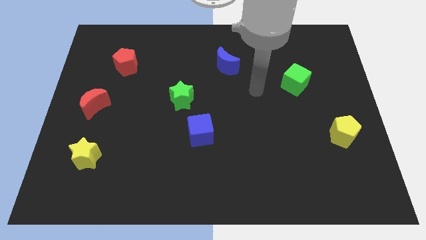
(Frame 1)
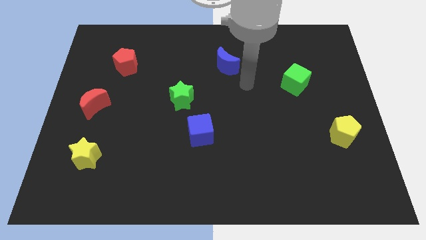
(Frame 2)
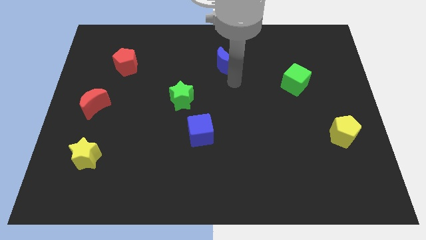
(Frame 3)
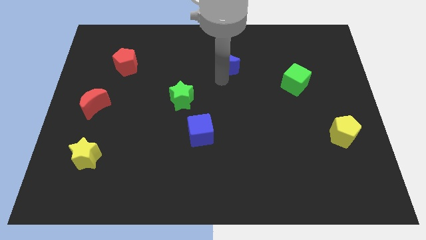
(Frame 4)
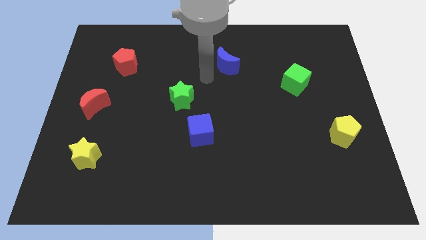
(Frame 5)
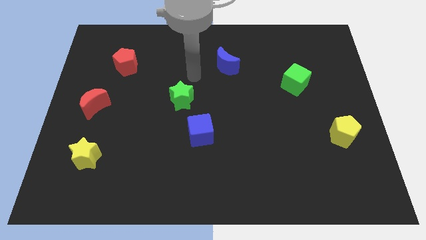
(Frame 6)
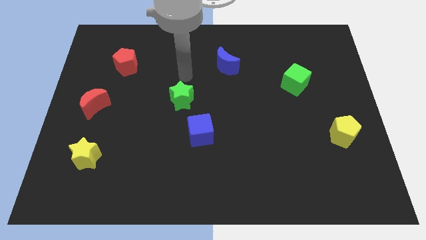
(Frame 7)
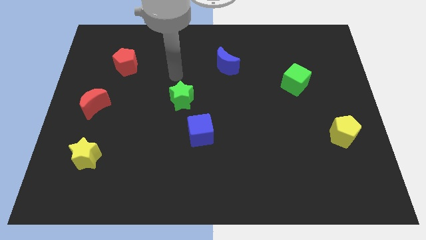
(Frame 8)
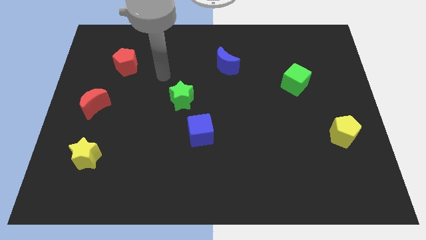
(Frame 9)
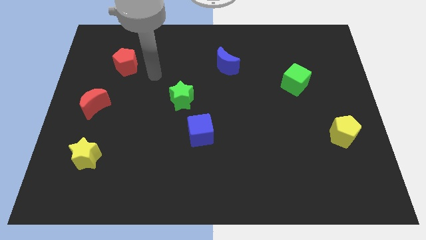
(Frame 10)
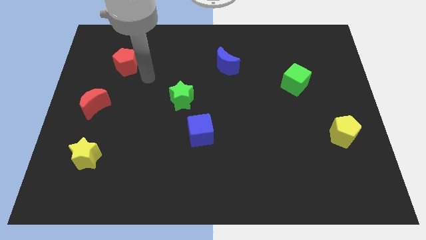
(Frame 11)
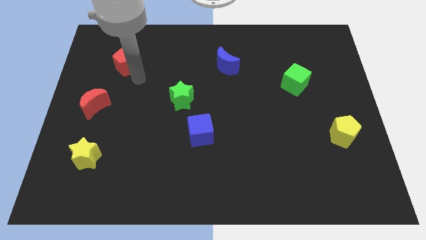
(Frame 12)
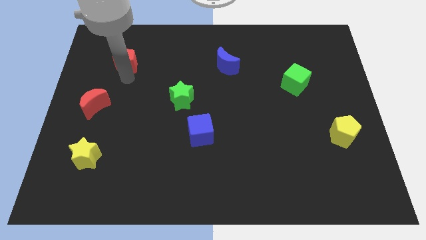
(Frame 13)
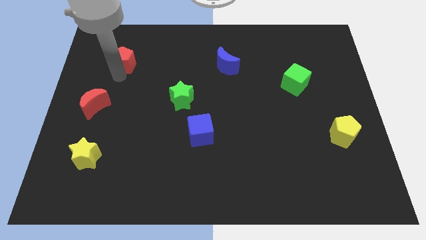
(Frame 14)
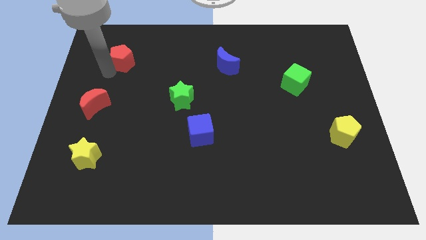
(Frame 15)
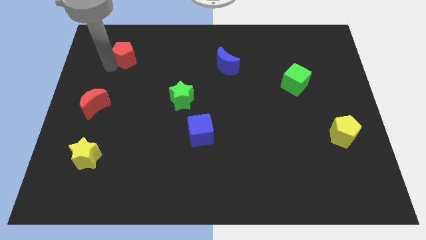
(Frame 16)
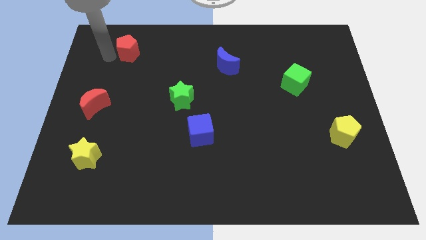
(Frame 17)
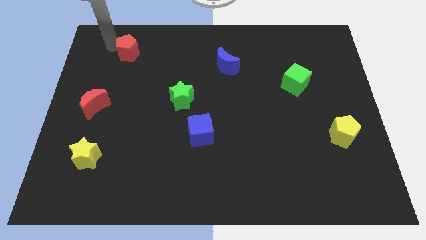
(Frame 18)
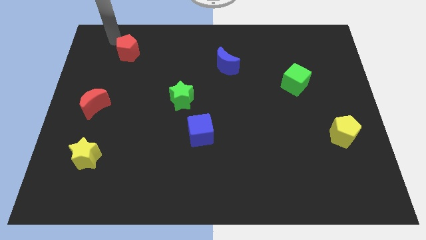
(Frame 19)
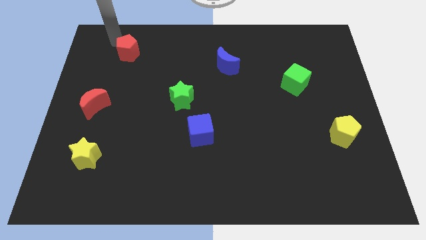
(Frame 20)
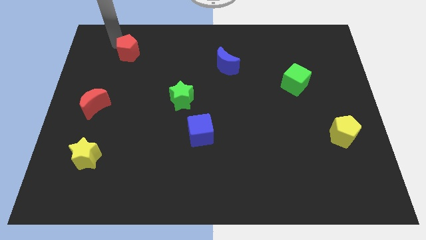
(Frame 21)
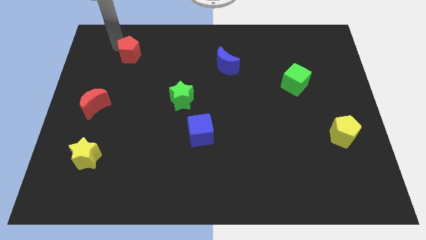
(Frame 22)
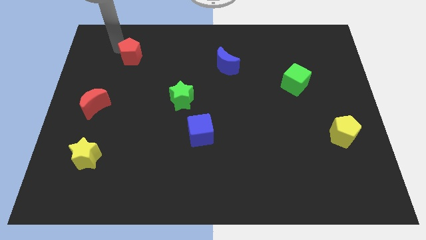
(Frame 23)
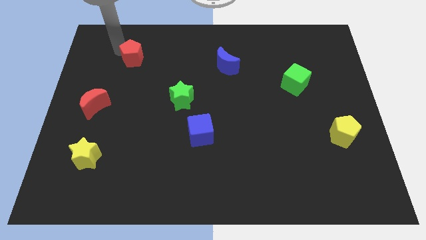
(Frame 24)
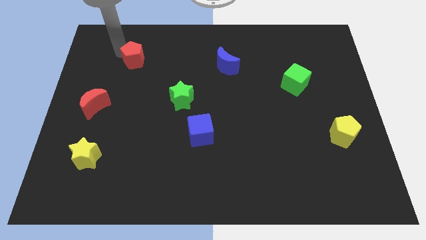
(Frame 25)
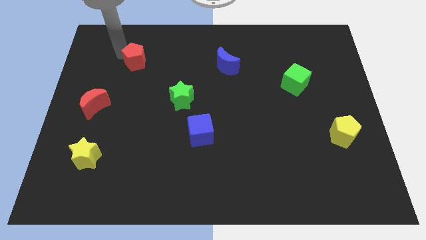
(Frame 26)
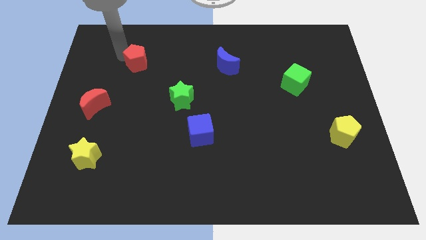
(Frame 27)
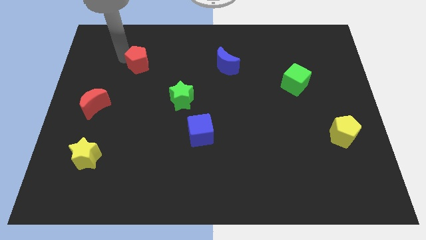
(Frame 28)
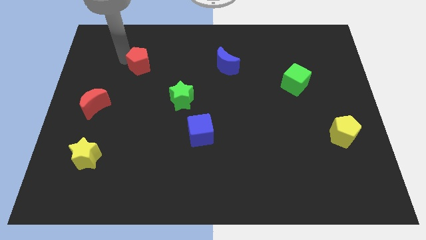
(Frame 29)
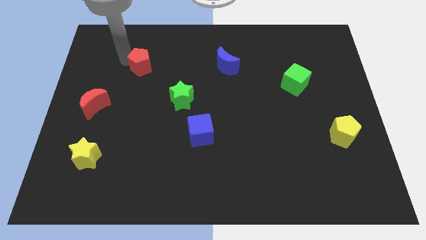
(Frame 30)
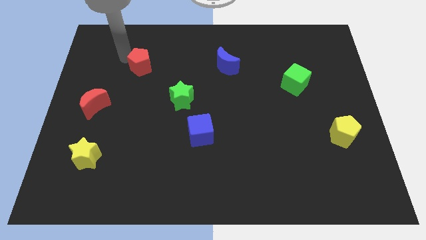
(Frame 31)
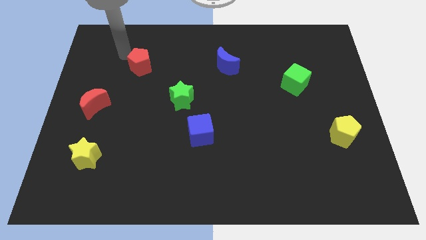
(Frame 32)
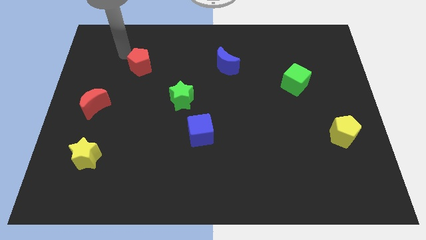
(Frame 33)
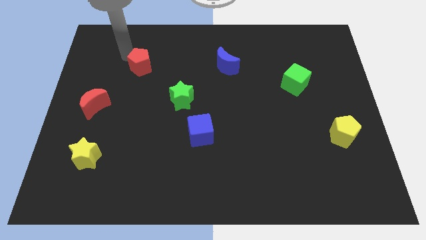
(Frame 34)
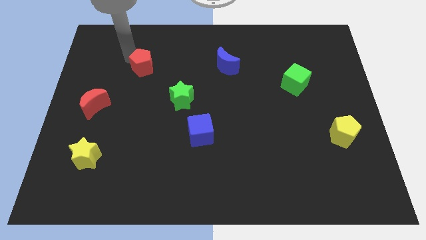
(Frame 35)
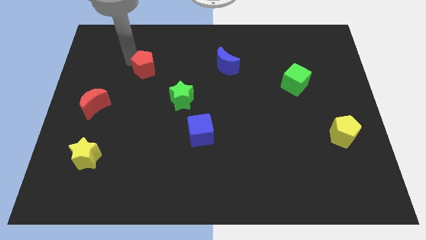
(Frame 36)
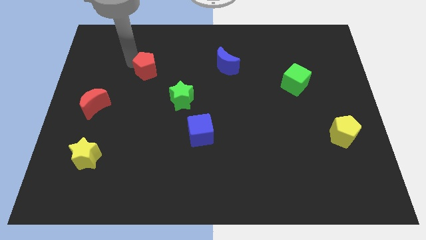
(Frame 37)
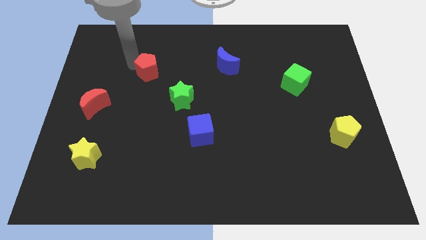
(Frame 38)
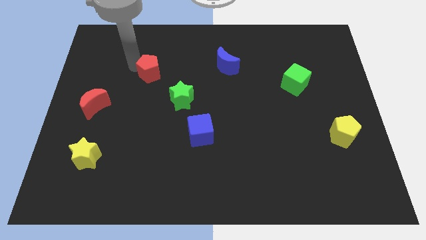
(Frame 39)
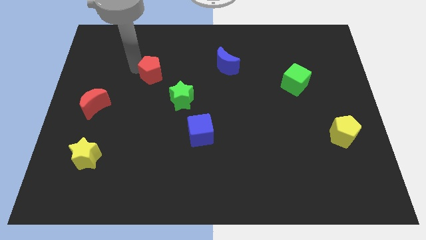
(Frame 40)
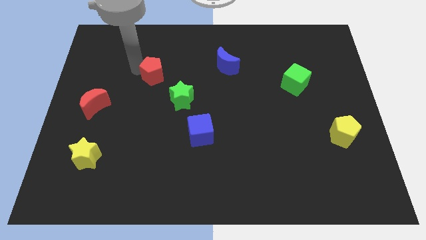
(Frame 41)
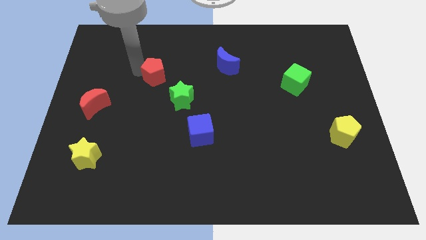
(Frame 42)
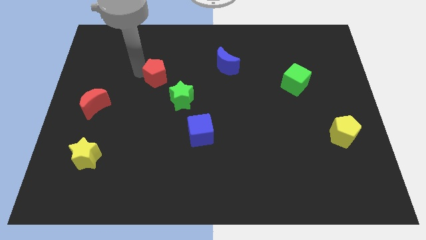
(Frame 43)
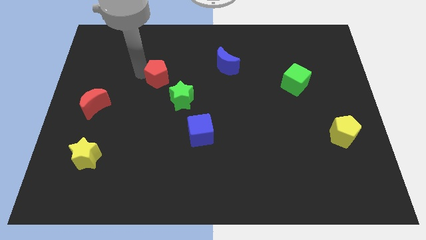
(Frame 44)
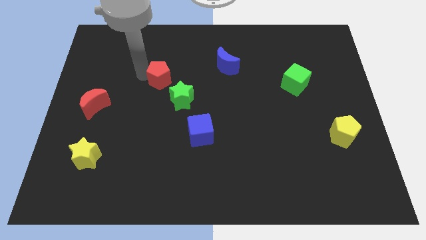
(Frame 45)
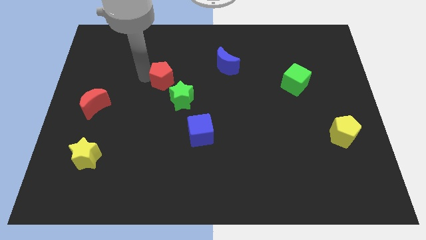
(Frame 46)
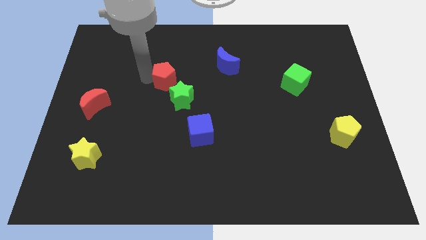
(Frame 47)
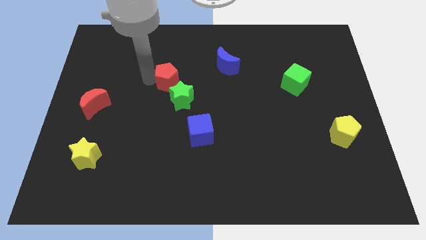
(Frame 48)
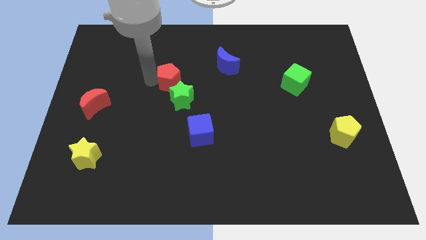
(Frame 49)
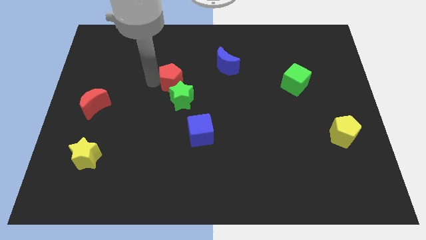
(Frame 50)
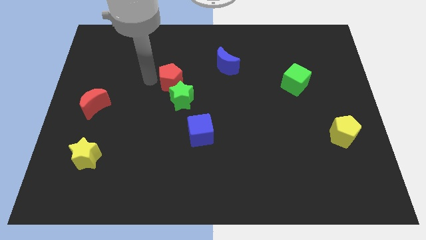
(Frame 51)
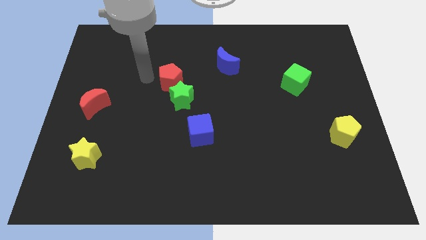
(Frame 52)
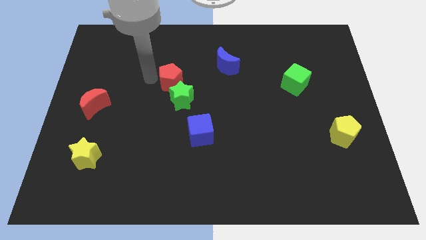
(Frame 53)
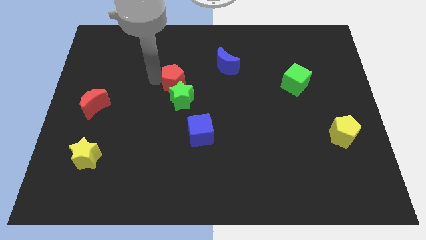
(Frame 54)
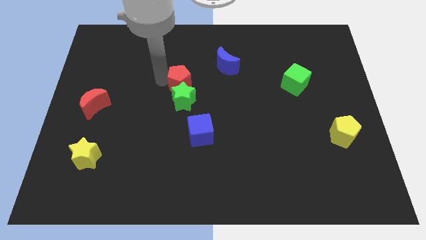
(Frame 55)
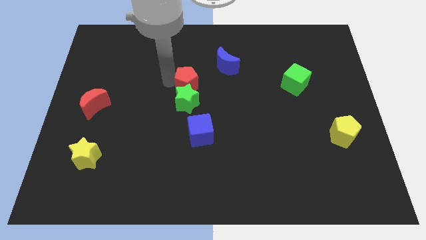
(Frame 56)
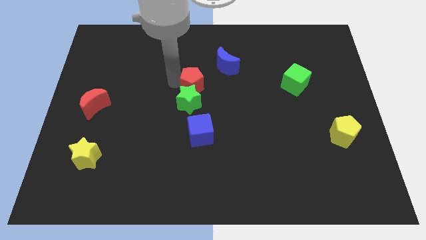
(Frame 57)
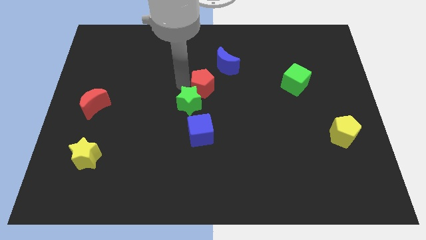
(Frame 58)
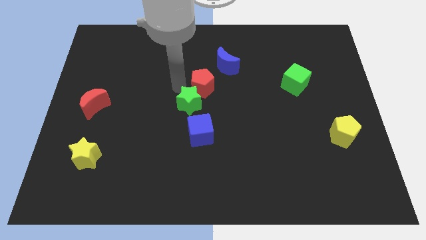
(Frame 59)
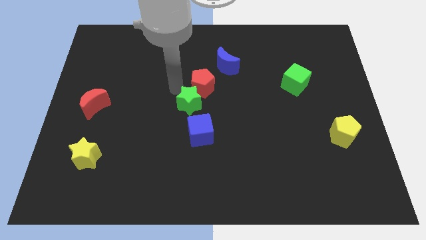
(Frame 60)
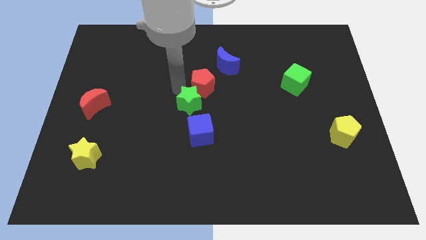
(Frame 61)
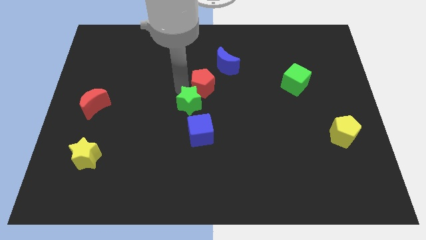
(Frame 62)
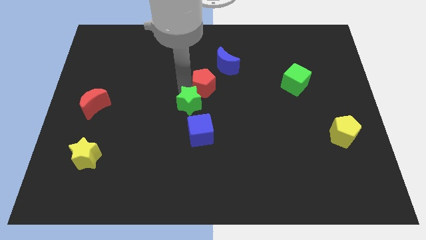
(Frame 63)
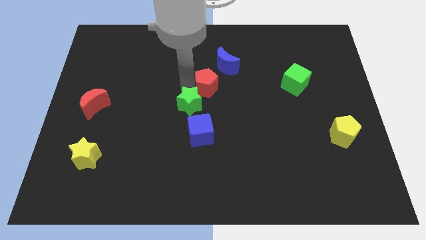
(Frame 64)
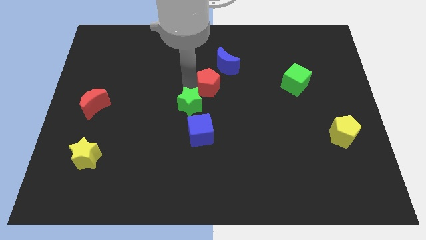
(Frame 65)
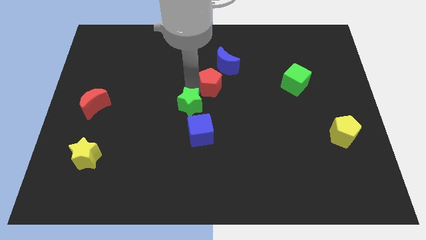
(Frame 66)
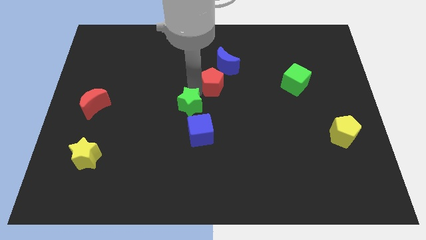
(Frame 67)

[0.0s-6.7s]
push the red pentagon to the right

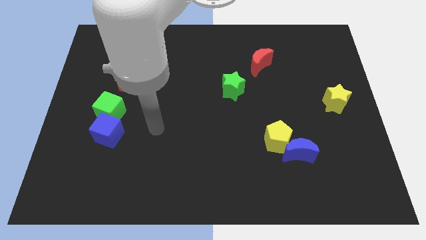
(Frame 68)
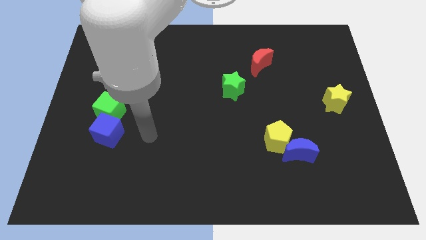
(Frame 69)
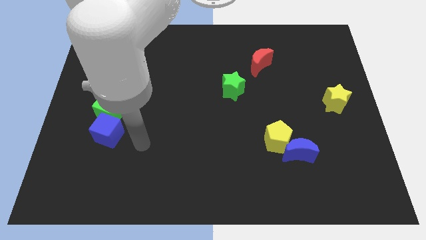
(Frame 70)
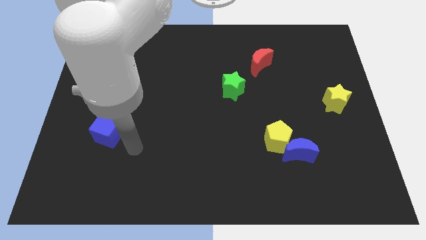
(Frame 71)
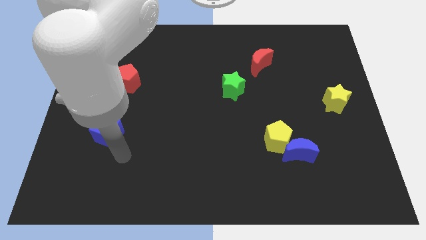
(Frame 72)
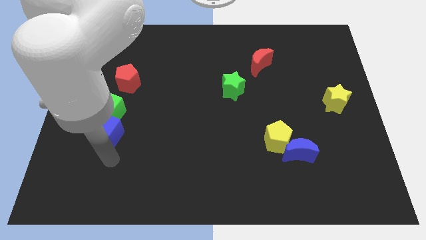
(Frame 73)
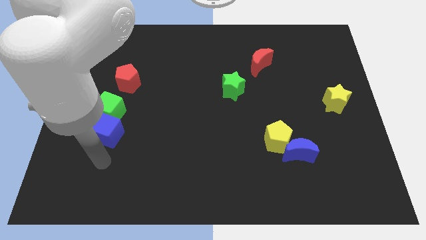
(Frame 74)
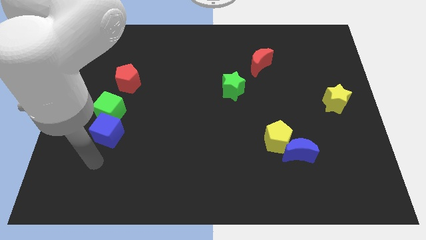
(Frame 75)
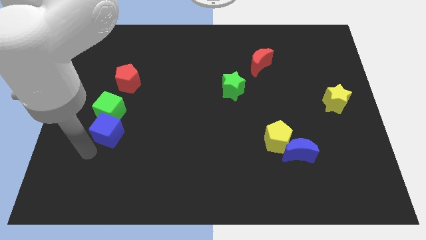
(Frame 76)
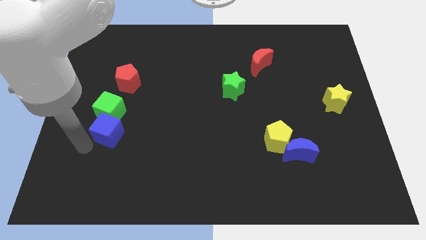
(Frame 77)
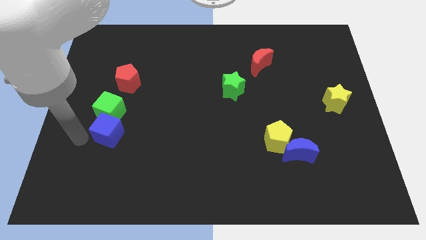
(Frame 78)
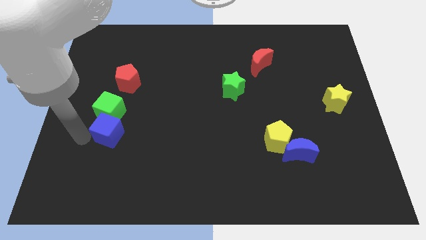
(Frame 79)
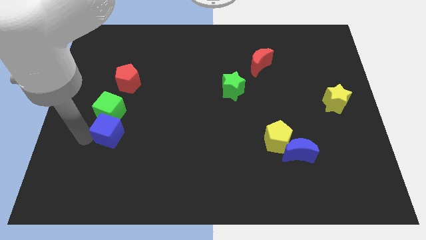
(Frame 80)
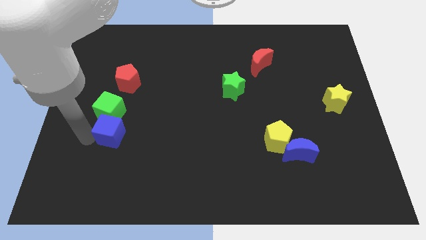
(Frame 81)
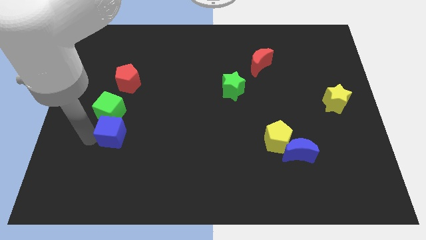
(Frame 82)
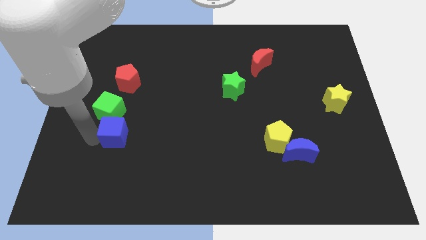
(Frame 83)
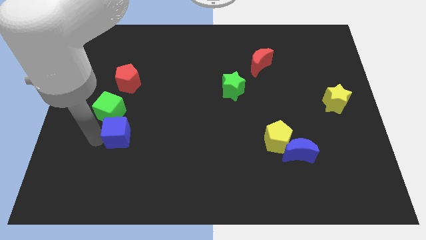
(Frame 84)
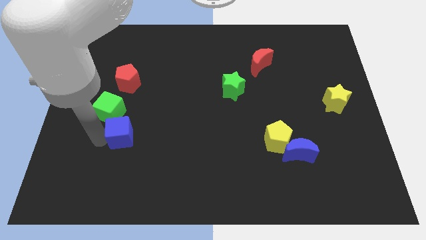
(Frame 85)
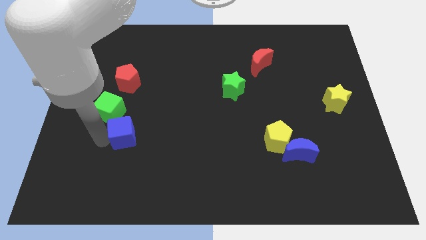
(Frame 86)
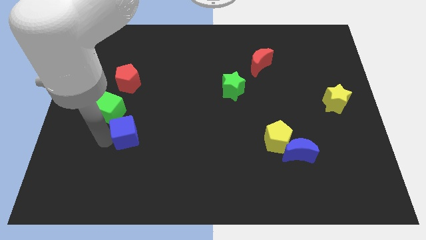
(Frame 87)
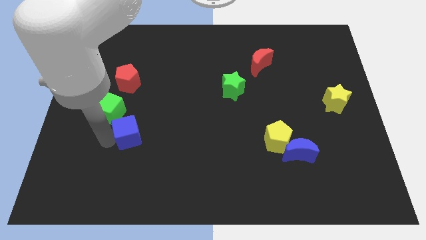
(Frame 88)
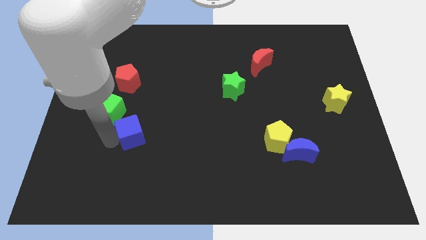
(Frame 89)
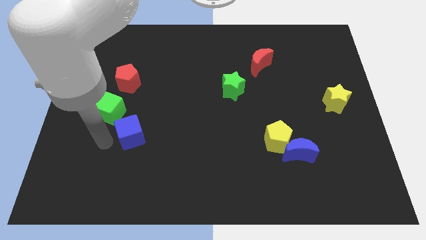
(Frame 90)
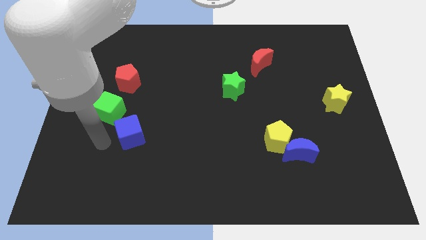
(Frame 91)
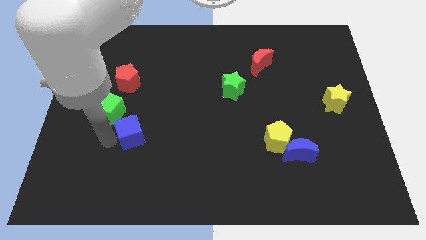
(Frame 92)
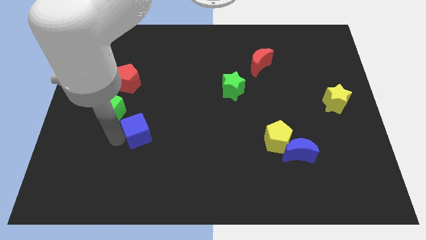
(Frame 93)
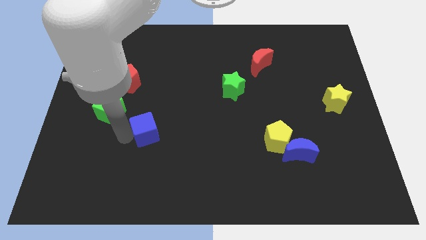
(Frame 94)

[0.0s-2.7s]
move the blue cube to the right a little bit
